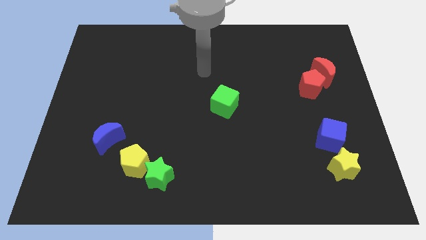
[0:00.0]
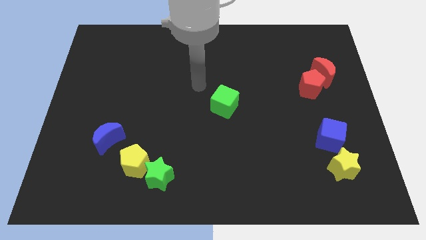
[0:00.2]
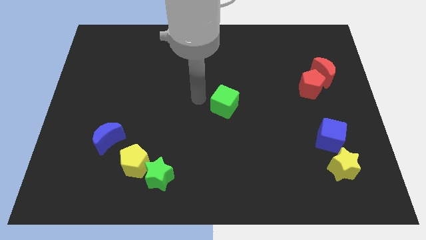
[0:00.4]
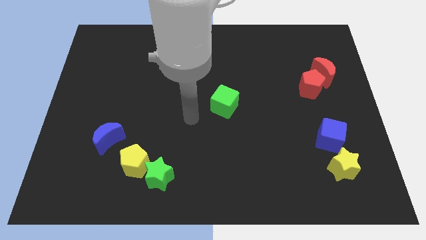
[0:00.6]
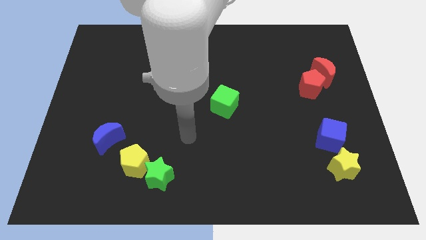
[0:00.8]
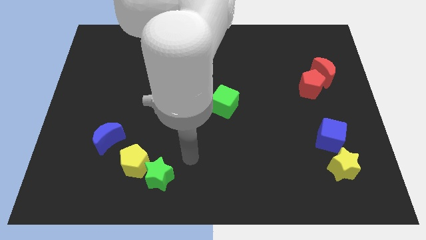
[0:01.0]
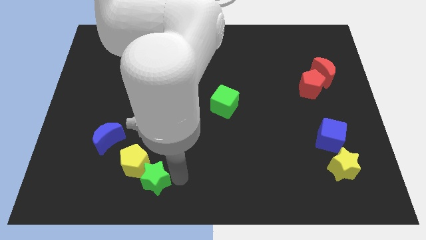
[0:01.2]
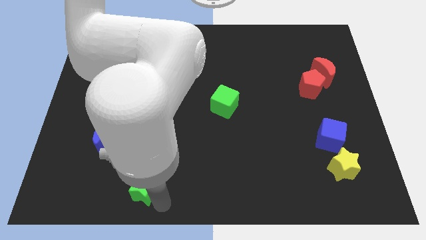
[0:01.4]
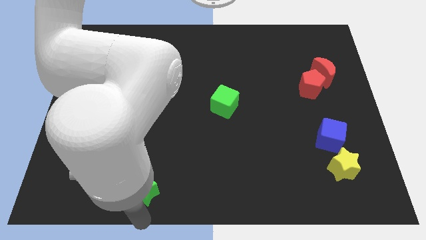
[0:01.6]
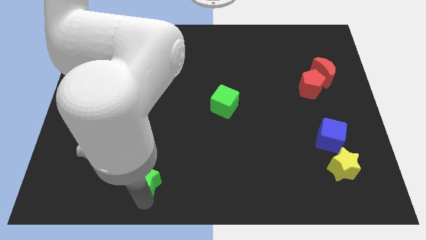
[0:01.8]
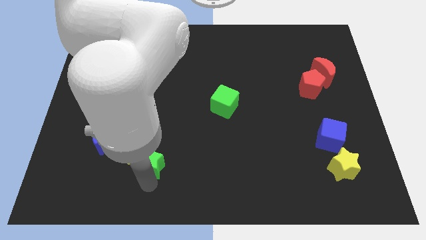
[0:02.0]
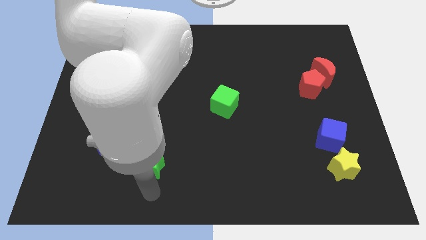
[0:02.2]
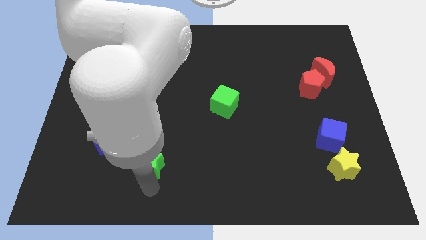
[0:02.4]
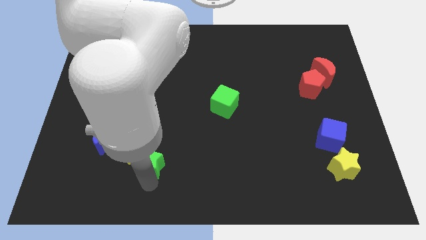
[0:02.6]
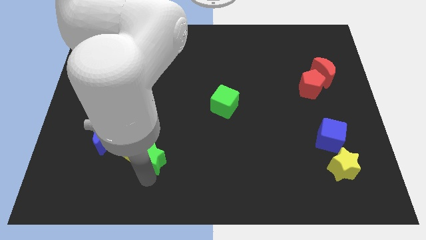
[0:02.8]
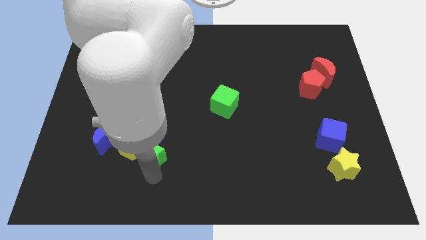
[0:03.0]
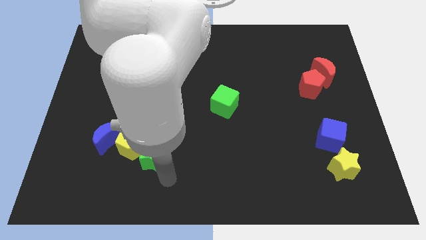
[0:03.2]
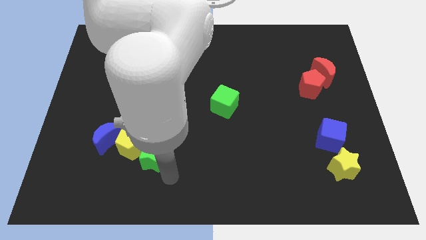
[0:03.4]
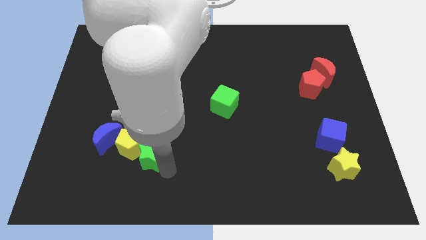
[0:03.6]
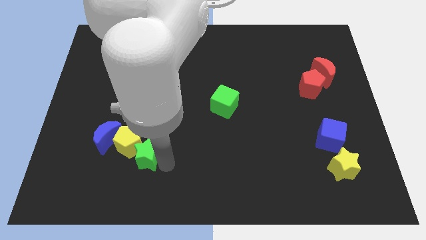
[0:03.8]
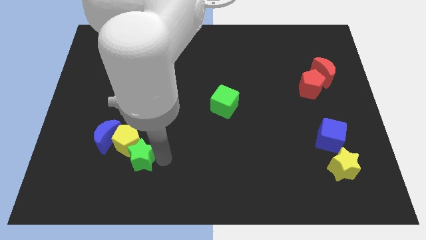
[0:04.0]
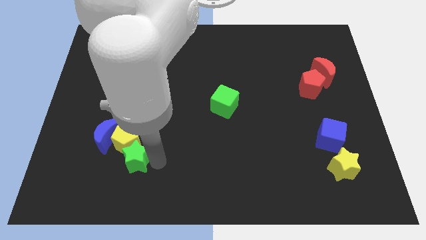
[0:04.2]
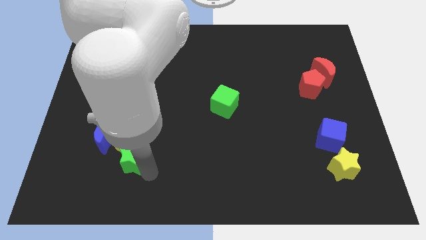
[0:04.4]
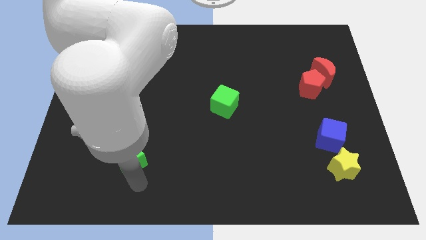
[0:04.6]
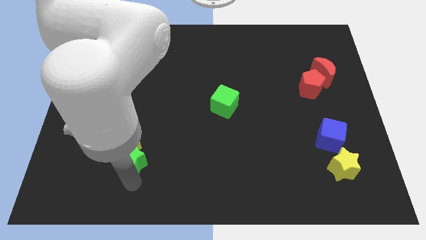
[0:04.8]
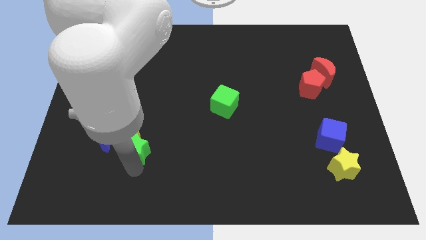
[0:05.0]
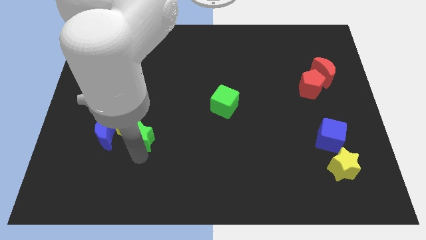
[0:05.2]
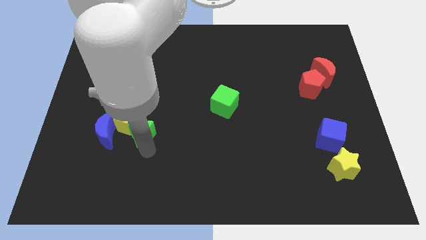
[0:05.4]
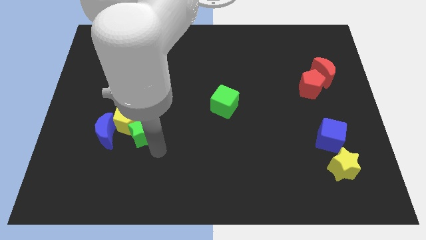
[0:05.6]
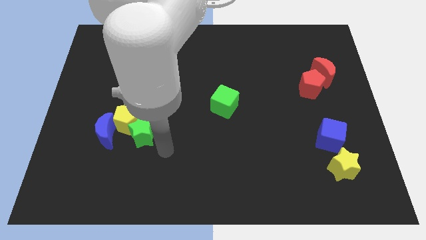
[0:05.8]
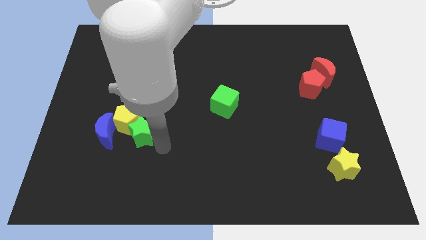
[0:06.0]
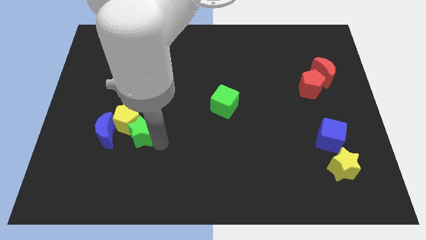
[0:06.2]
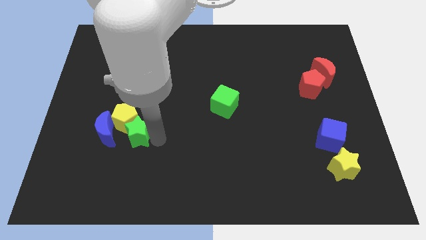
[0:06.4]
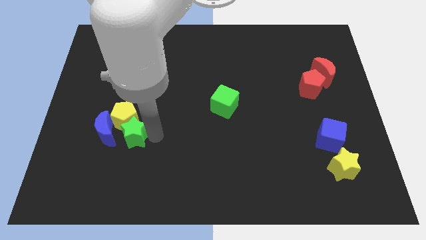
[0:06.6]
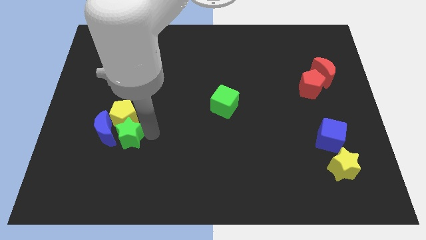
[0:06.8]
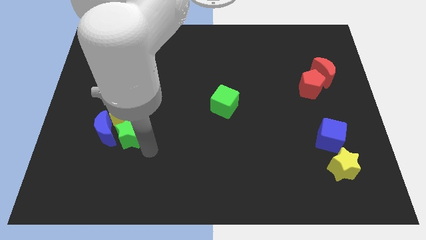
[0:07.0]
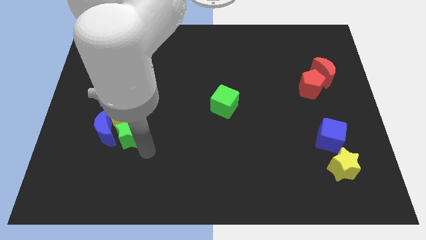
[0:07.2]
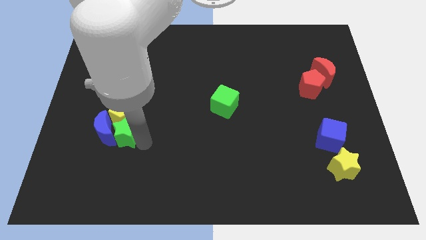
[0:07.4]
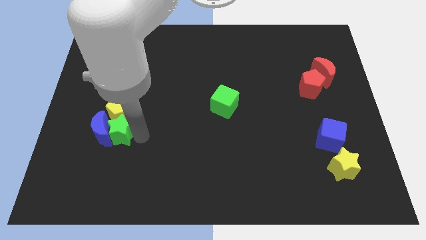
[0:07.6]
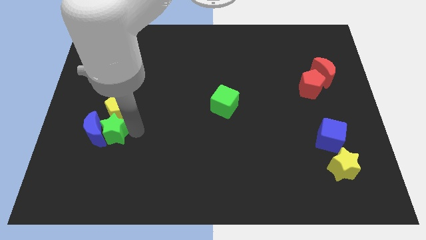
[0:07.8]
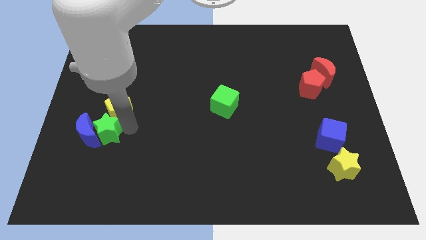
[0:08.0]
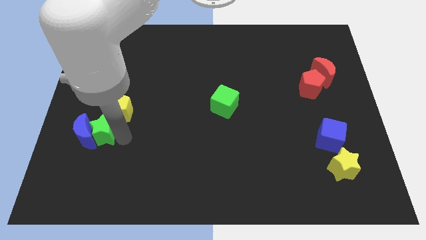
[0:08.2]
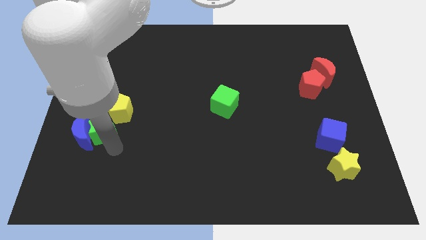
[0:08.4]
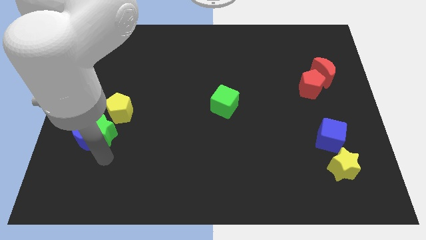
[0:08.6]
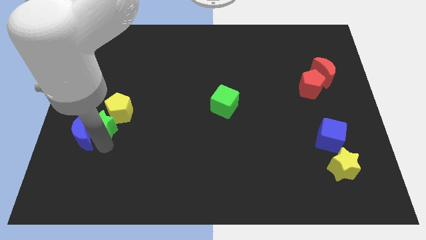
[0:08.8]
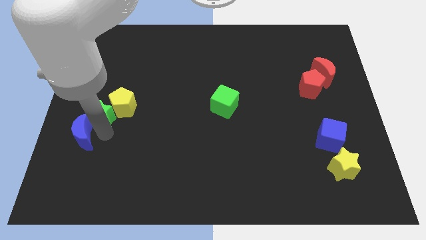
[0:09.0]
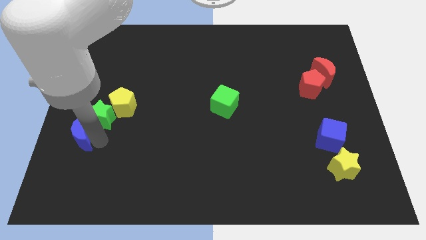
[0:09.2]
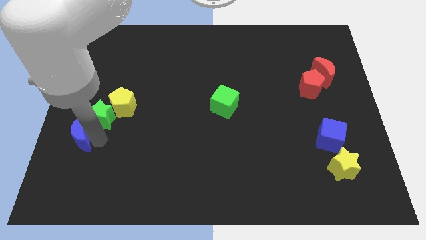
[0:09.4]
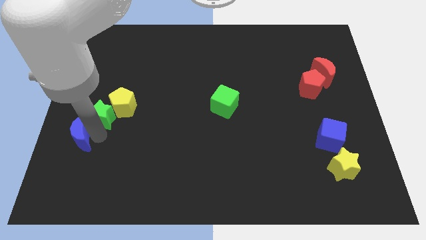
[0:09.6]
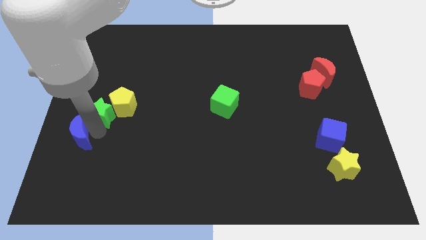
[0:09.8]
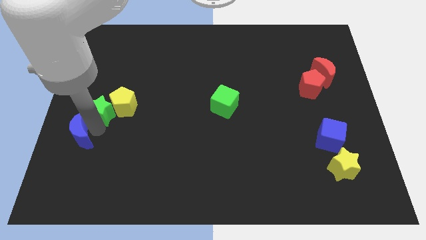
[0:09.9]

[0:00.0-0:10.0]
move the green star to the center left

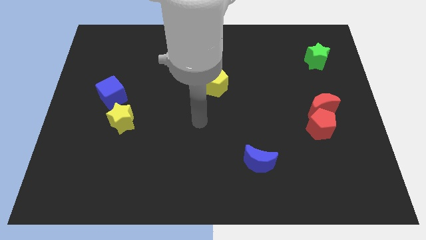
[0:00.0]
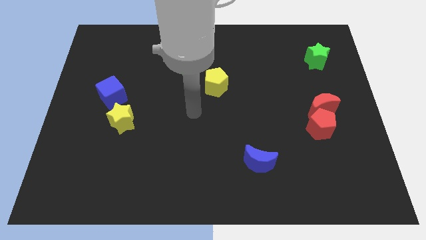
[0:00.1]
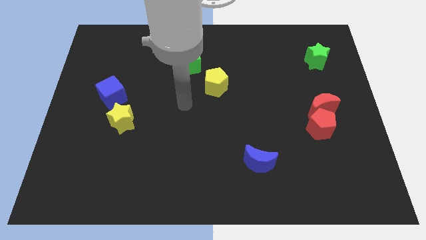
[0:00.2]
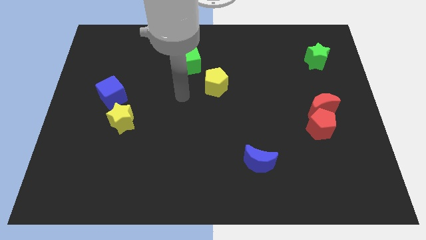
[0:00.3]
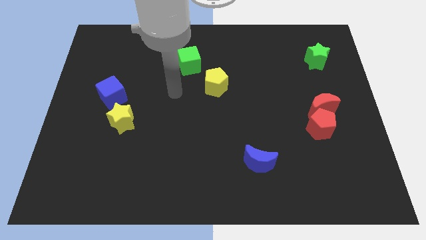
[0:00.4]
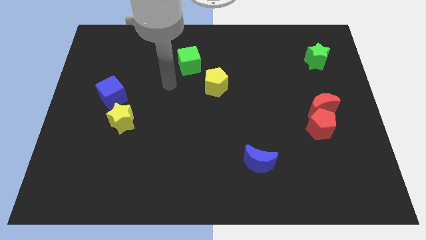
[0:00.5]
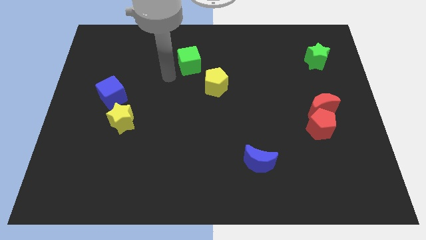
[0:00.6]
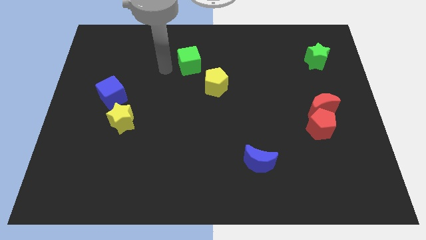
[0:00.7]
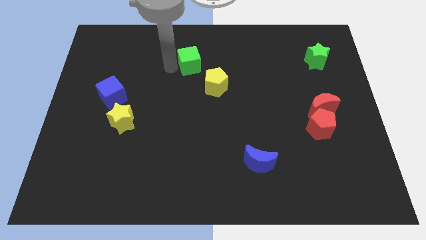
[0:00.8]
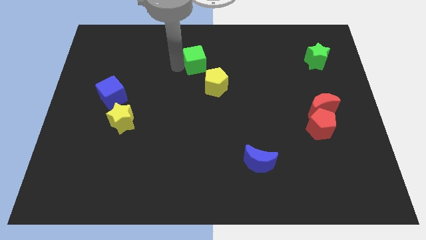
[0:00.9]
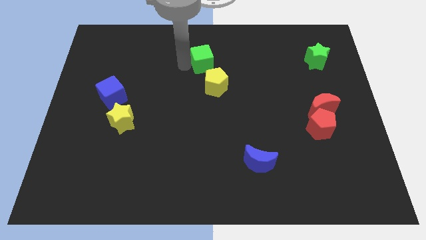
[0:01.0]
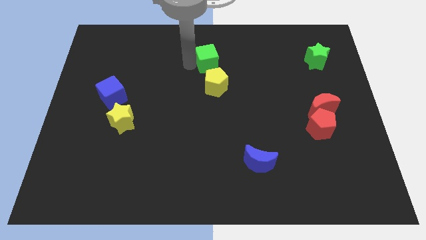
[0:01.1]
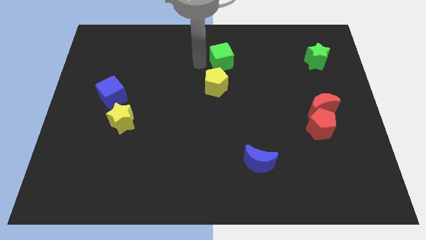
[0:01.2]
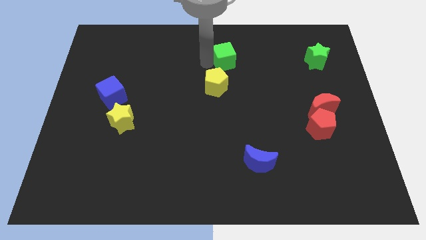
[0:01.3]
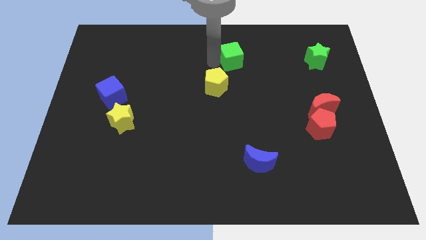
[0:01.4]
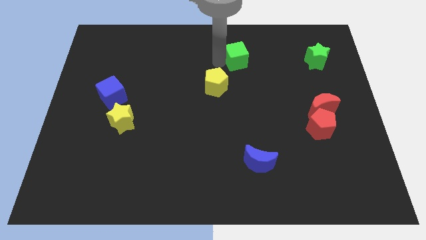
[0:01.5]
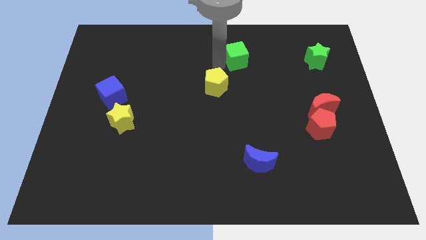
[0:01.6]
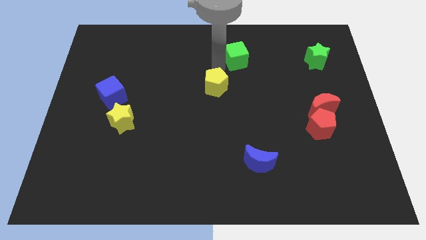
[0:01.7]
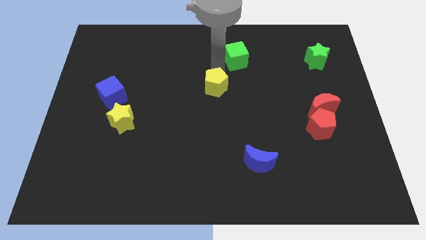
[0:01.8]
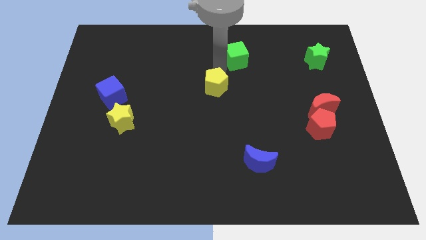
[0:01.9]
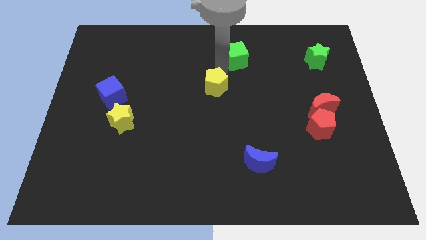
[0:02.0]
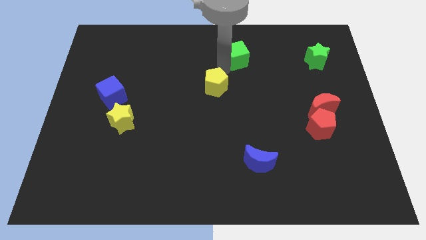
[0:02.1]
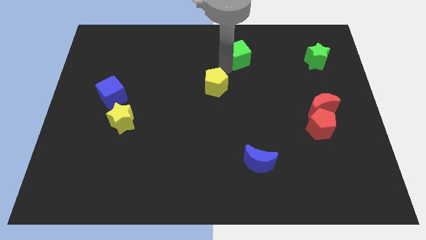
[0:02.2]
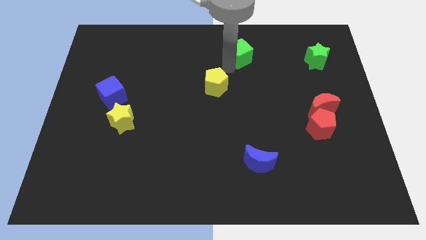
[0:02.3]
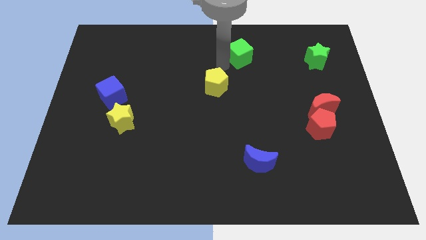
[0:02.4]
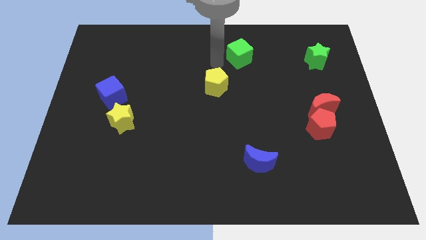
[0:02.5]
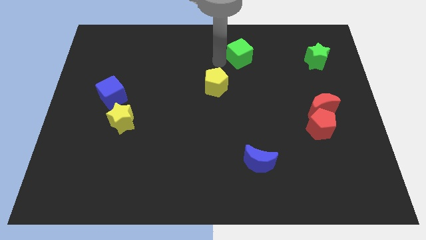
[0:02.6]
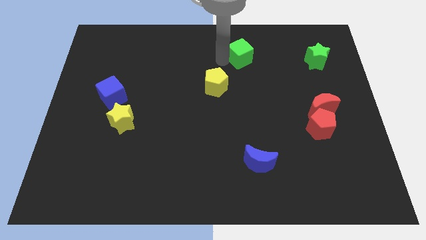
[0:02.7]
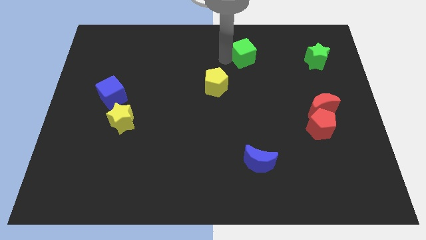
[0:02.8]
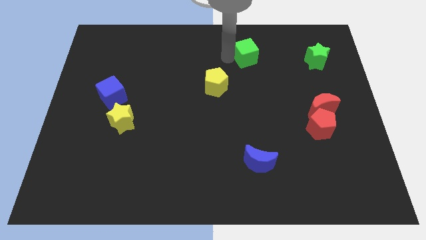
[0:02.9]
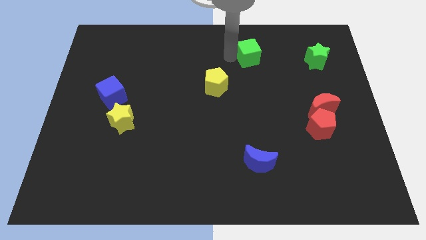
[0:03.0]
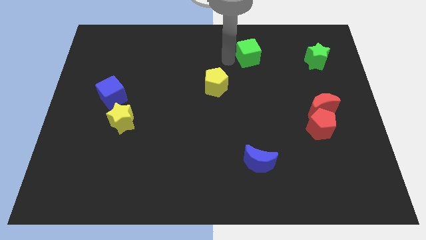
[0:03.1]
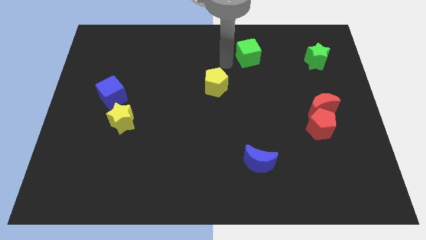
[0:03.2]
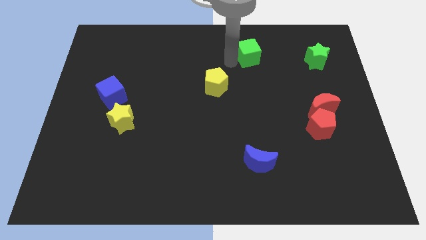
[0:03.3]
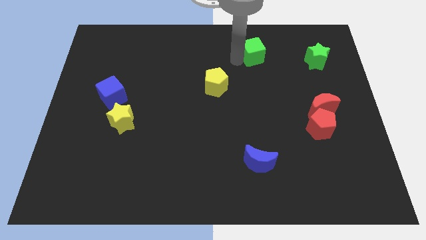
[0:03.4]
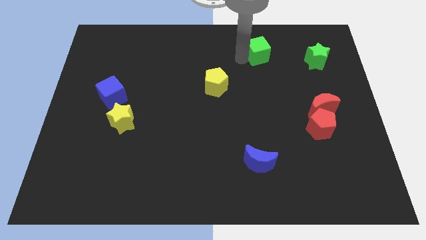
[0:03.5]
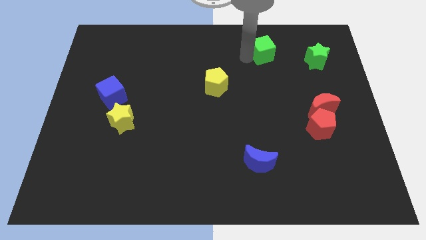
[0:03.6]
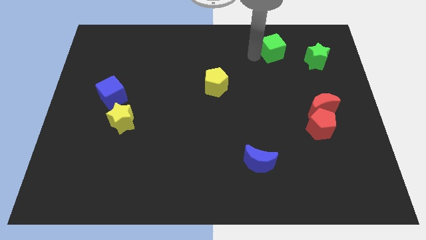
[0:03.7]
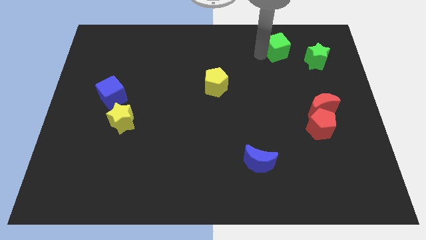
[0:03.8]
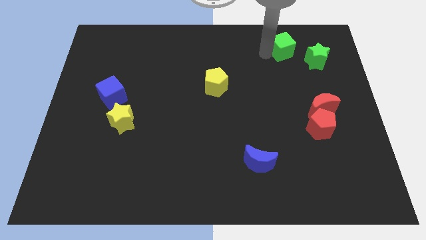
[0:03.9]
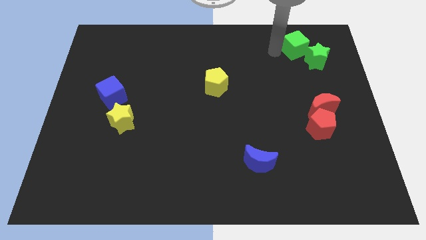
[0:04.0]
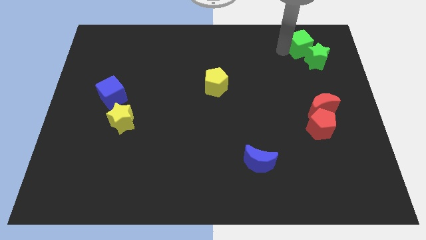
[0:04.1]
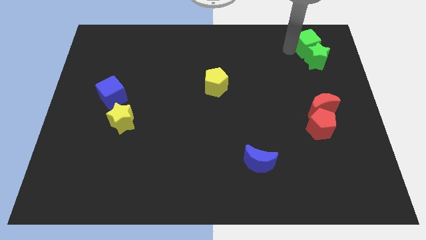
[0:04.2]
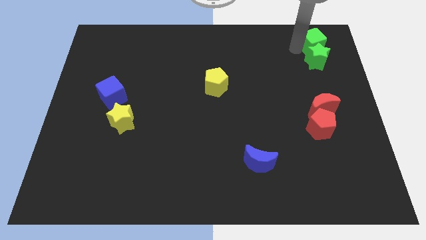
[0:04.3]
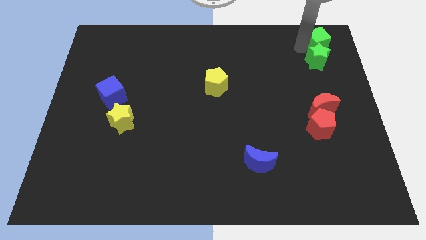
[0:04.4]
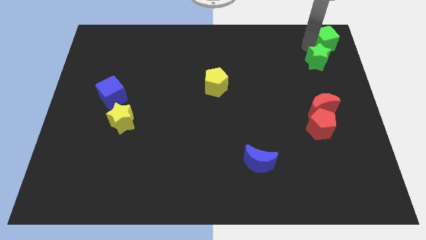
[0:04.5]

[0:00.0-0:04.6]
move the green cube to the top right of the board
